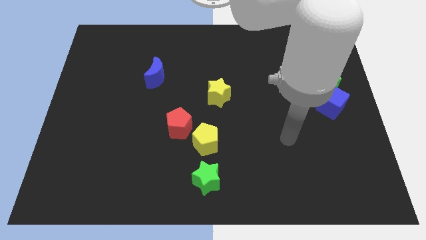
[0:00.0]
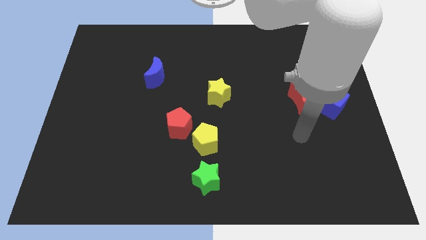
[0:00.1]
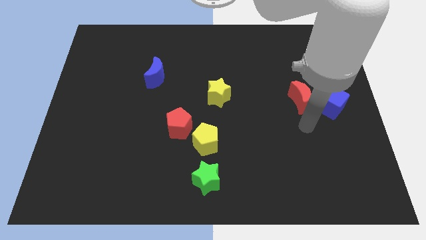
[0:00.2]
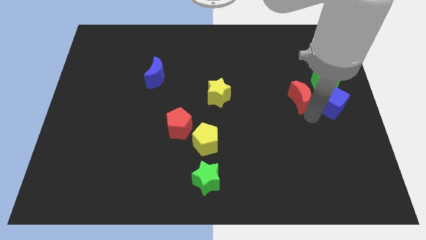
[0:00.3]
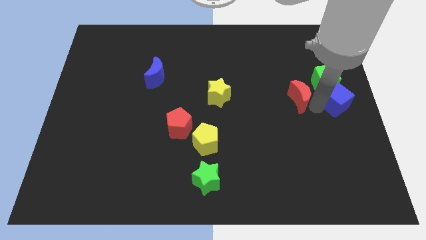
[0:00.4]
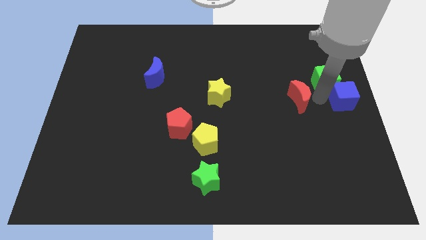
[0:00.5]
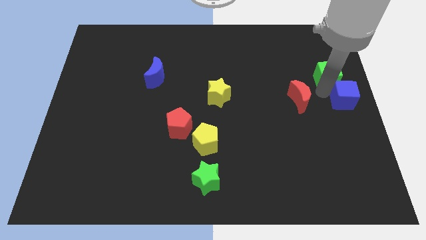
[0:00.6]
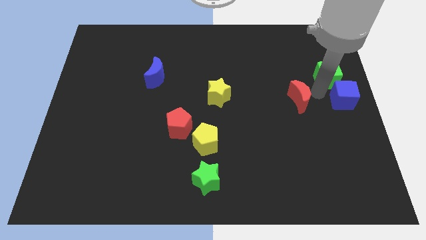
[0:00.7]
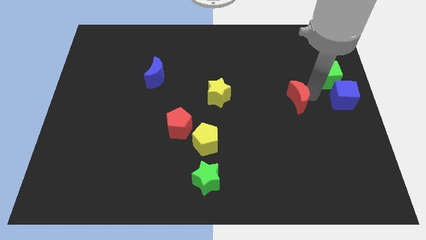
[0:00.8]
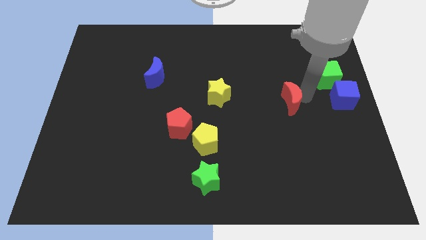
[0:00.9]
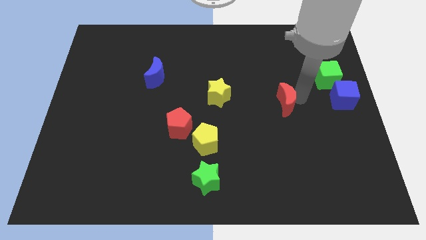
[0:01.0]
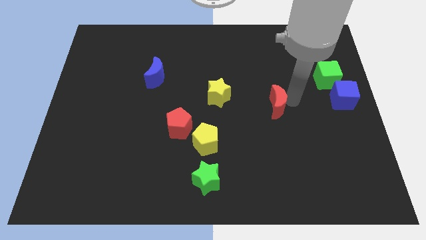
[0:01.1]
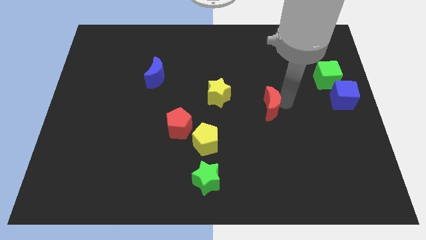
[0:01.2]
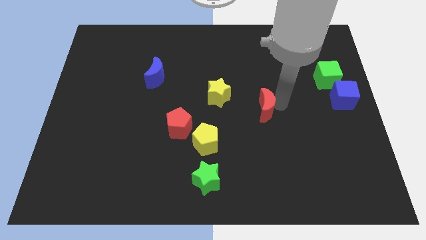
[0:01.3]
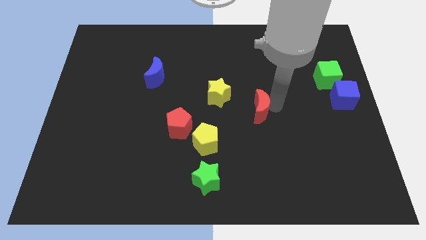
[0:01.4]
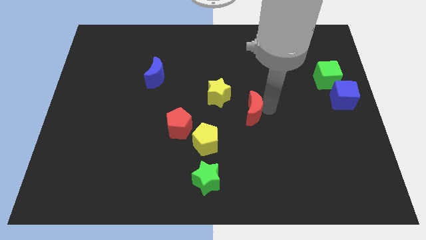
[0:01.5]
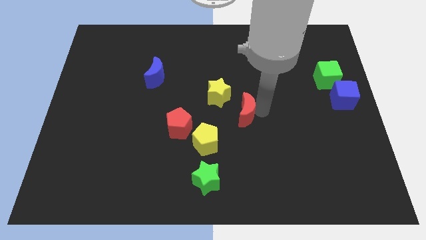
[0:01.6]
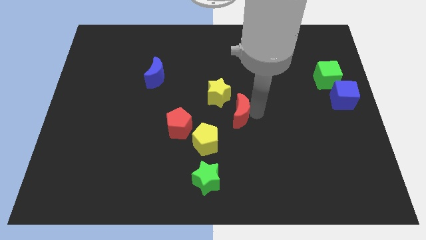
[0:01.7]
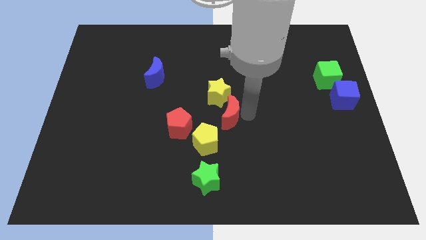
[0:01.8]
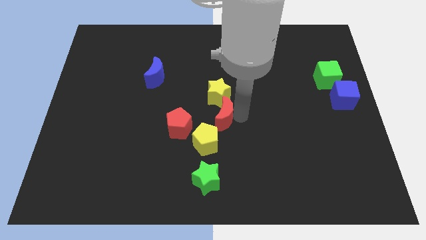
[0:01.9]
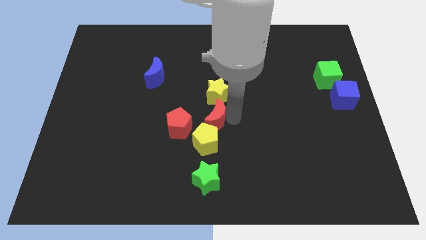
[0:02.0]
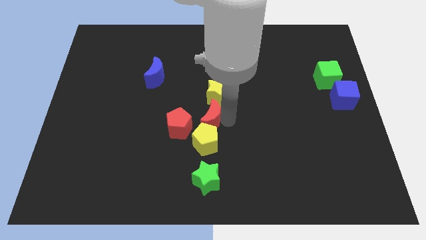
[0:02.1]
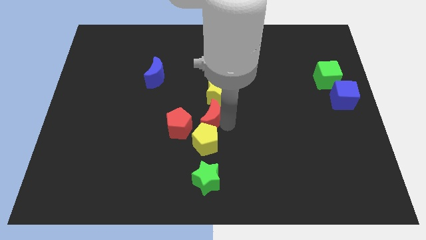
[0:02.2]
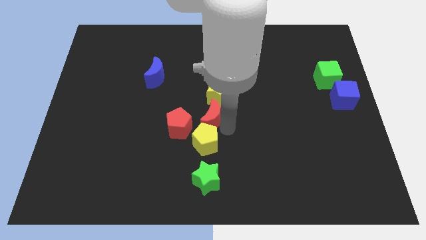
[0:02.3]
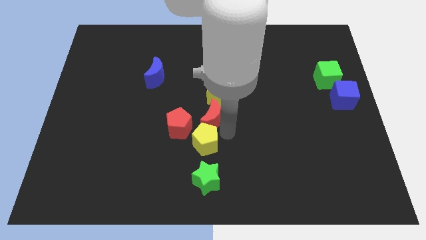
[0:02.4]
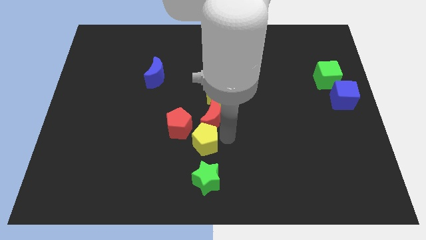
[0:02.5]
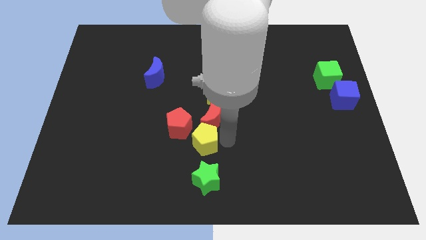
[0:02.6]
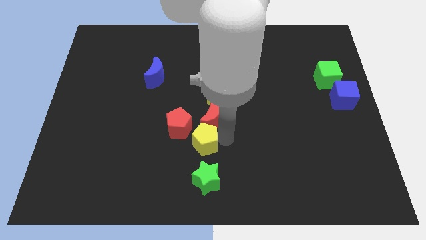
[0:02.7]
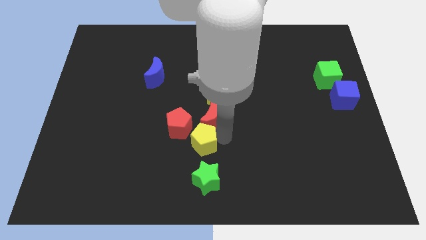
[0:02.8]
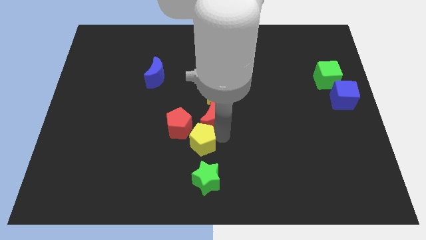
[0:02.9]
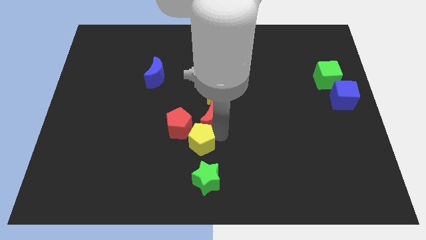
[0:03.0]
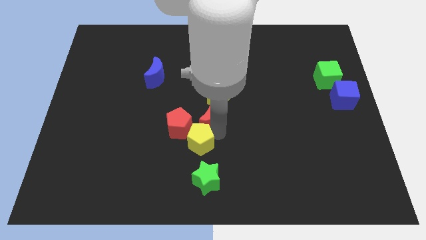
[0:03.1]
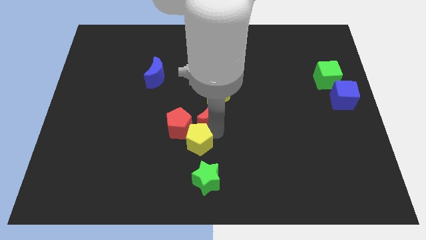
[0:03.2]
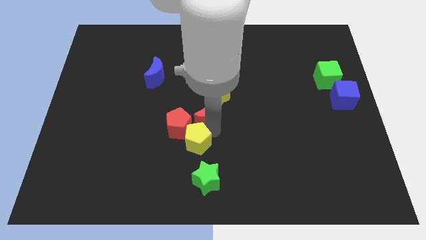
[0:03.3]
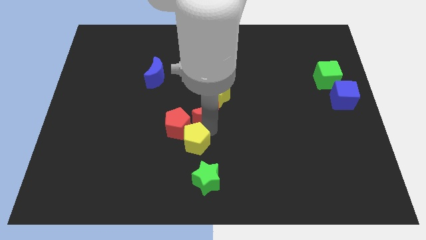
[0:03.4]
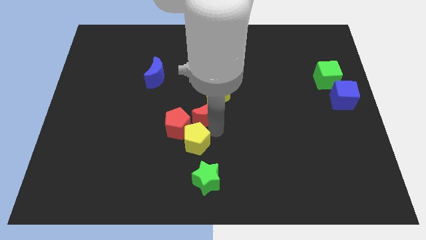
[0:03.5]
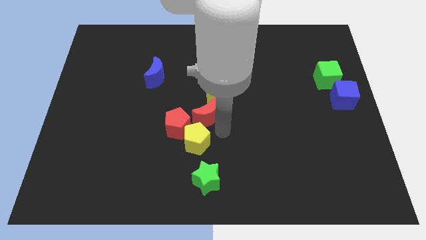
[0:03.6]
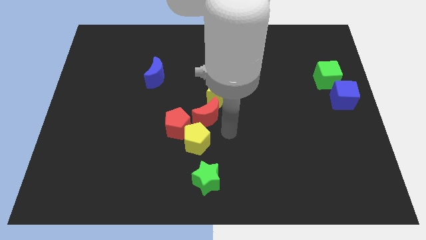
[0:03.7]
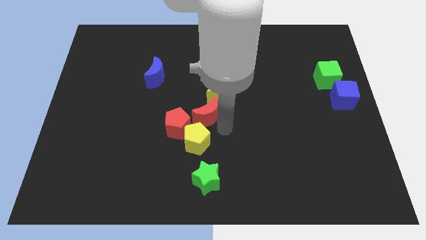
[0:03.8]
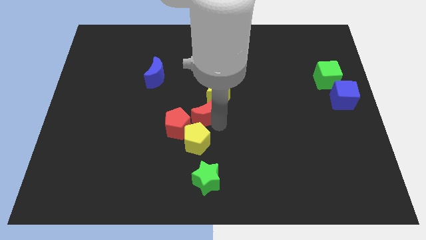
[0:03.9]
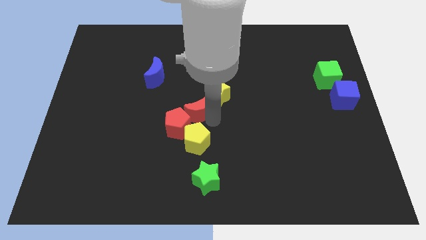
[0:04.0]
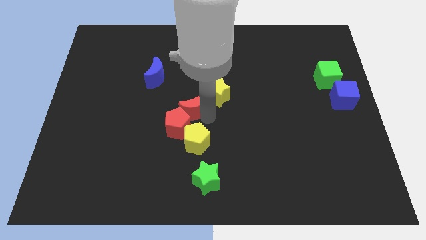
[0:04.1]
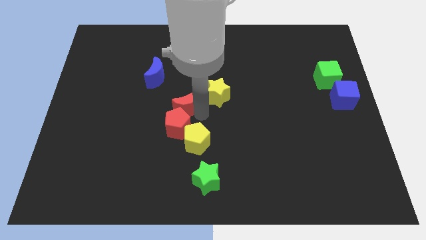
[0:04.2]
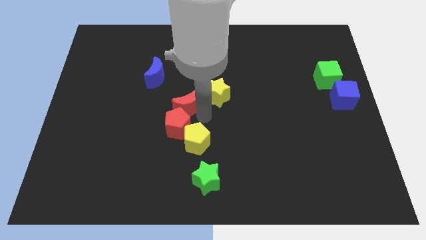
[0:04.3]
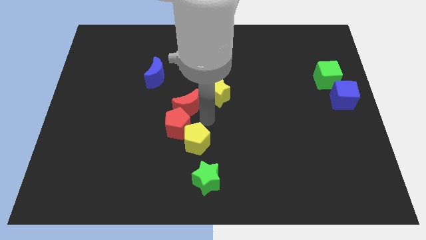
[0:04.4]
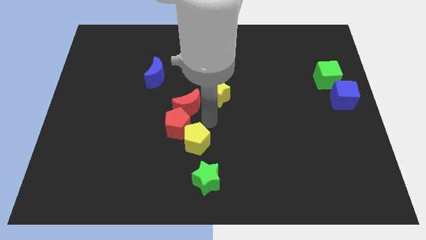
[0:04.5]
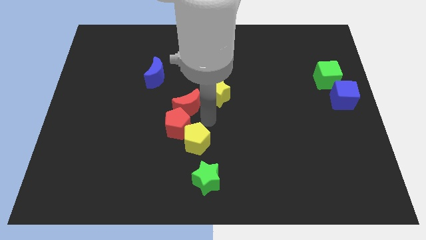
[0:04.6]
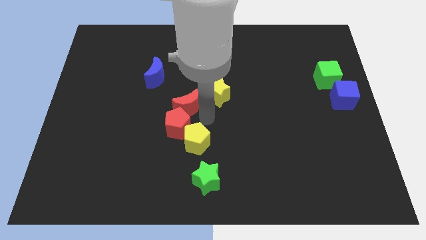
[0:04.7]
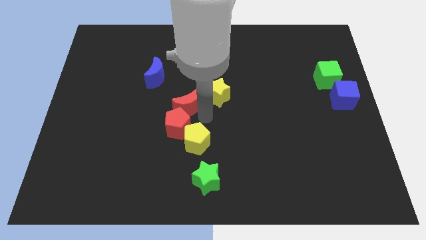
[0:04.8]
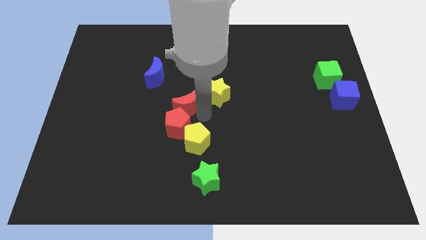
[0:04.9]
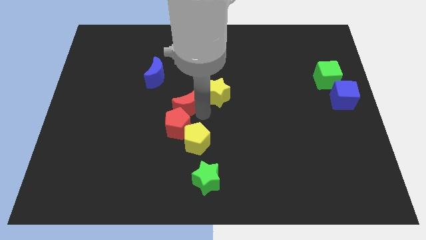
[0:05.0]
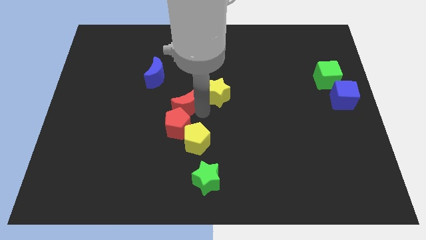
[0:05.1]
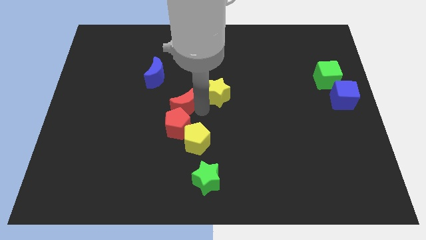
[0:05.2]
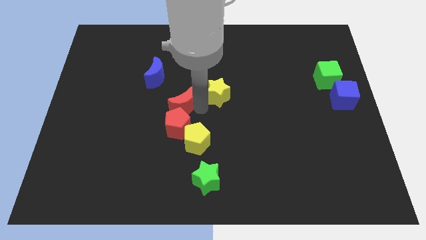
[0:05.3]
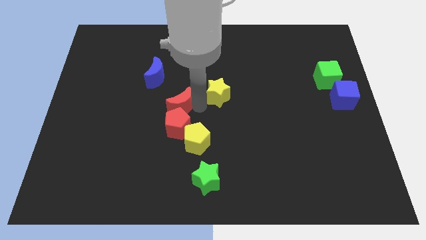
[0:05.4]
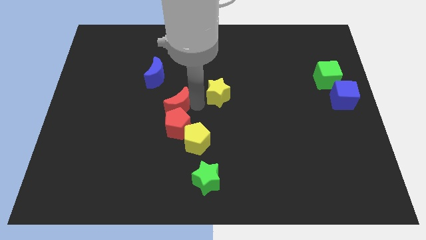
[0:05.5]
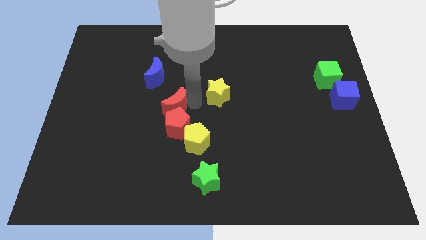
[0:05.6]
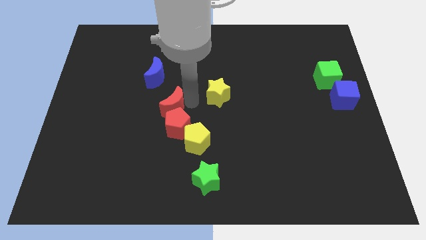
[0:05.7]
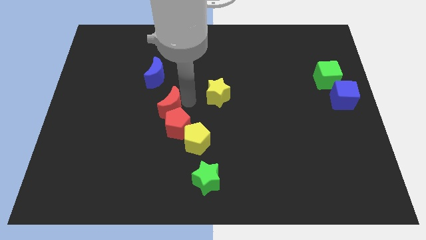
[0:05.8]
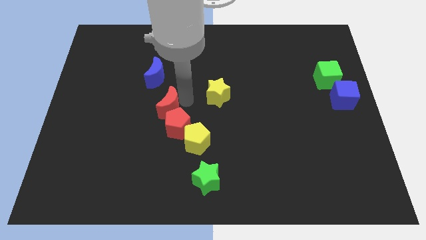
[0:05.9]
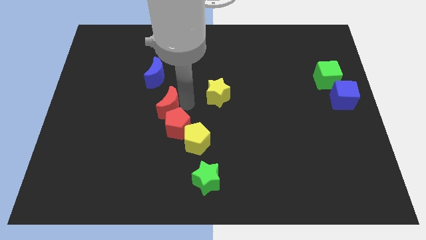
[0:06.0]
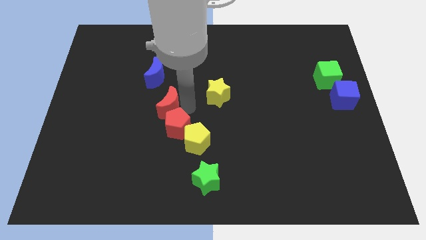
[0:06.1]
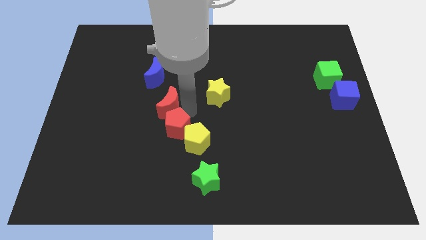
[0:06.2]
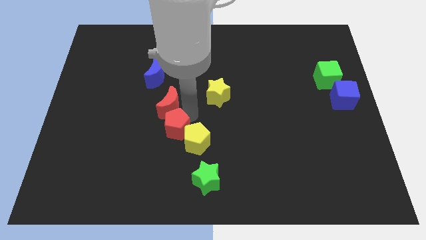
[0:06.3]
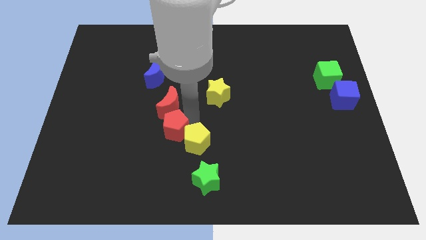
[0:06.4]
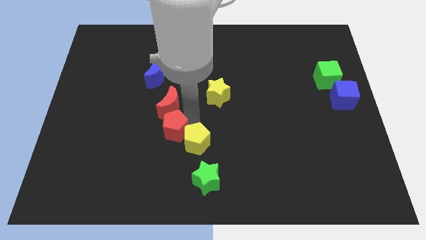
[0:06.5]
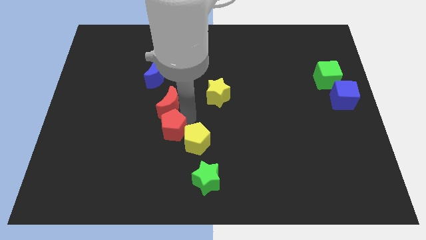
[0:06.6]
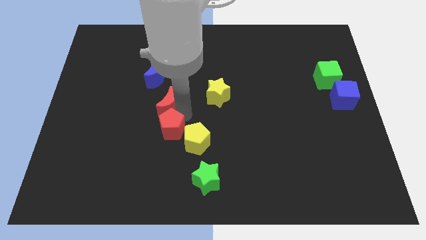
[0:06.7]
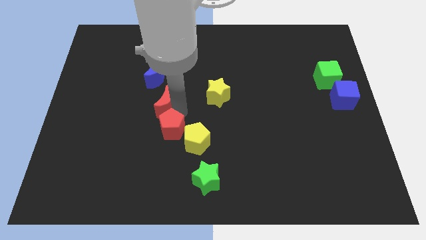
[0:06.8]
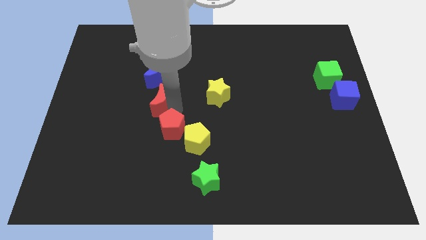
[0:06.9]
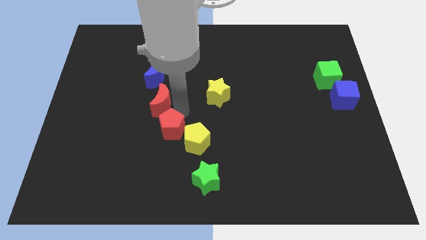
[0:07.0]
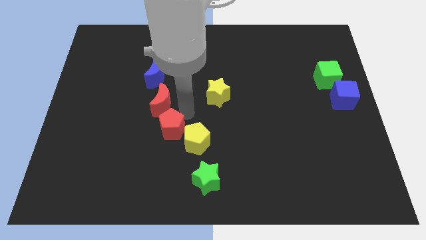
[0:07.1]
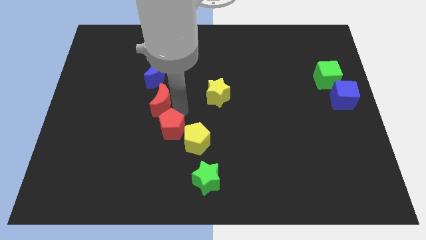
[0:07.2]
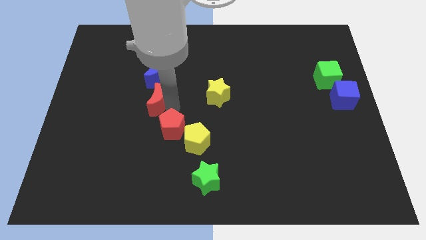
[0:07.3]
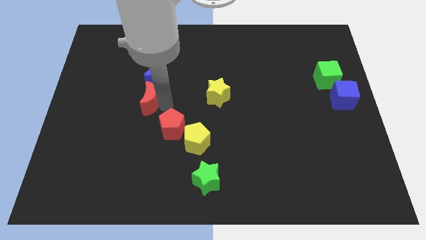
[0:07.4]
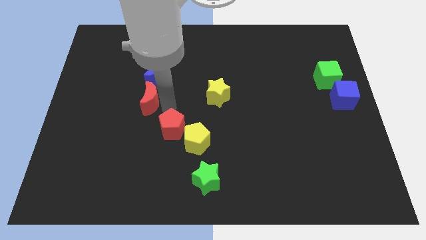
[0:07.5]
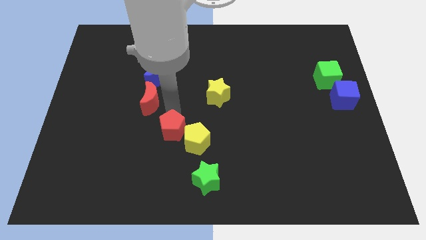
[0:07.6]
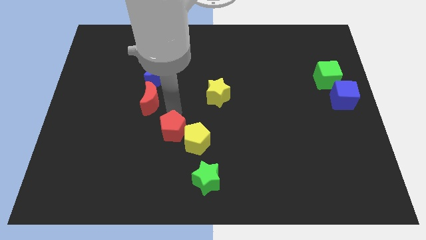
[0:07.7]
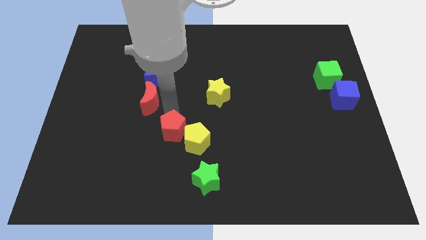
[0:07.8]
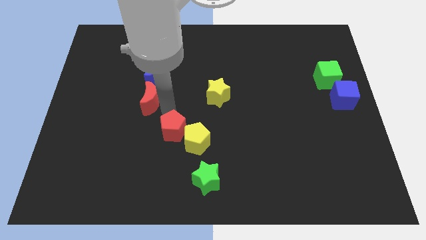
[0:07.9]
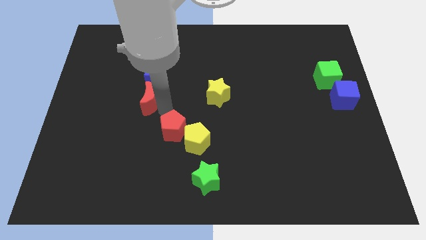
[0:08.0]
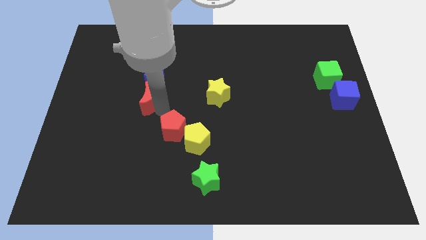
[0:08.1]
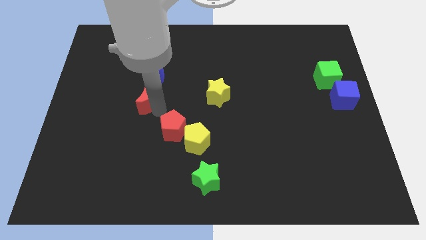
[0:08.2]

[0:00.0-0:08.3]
put the red moon diagonally down and to the left of the blue moon
